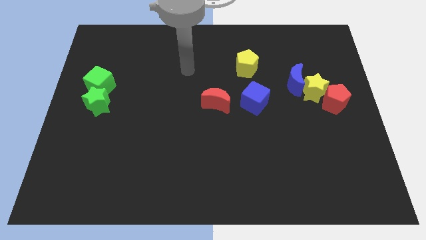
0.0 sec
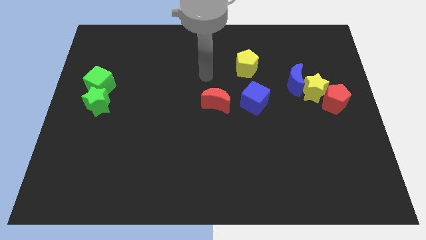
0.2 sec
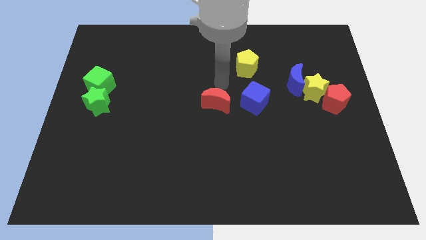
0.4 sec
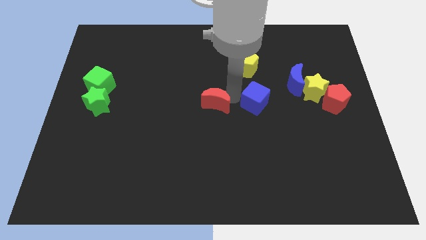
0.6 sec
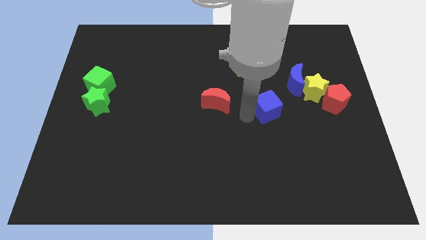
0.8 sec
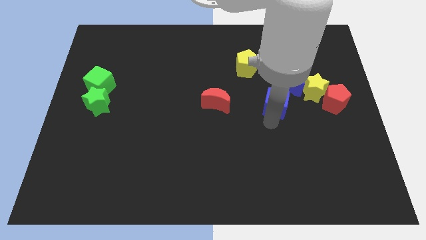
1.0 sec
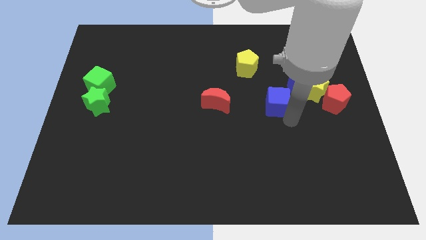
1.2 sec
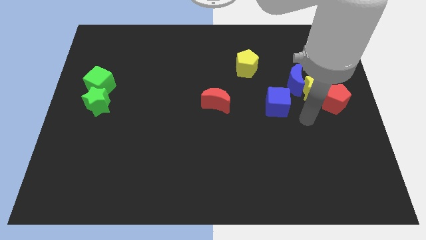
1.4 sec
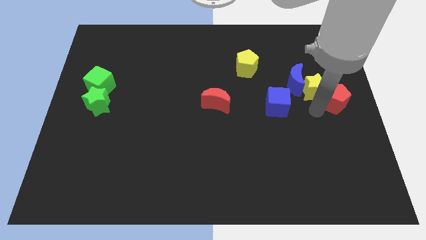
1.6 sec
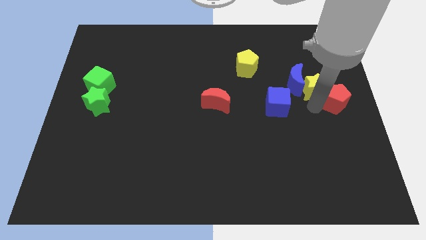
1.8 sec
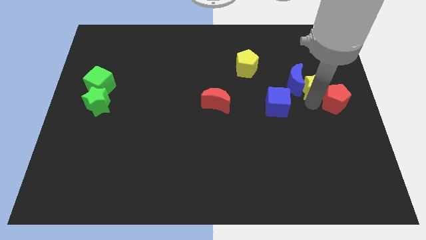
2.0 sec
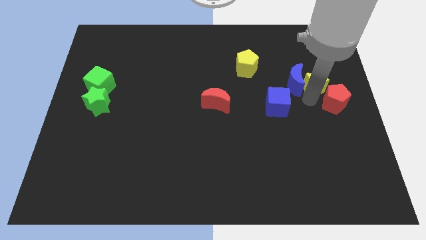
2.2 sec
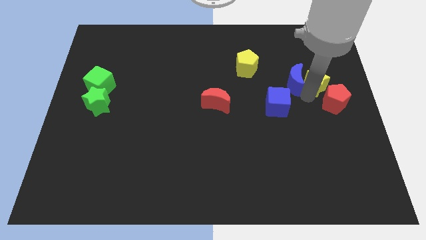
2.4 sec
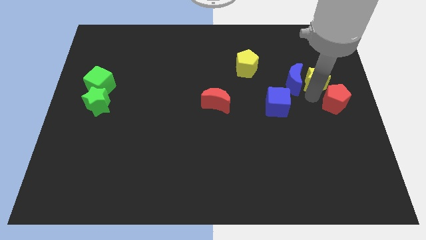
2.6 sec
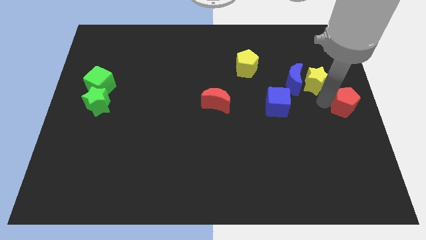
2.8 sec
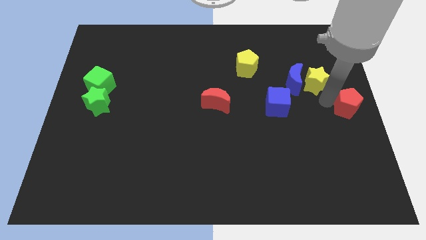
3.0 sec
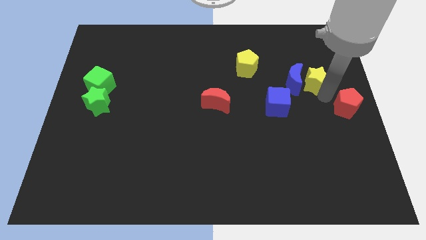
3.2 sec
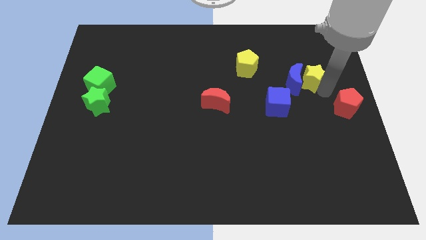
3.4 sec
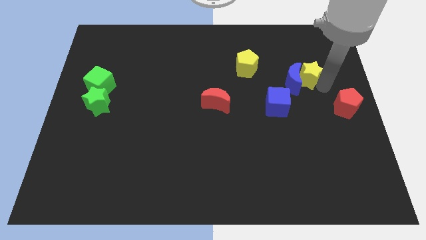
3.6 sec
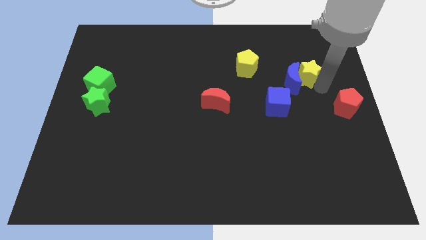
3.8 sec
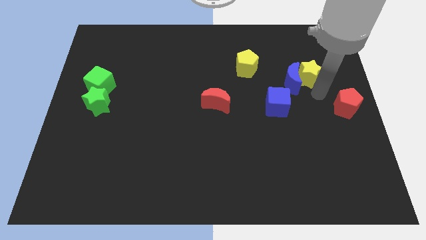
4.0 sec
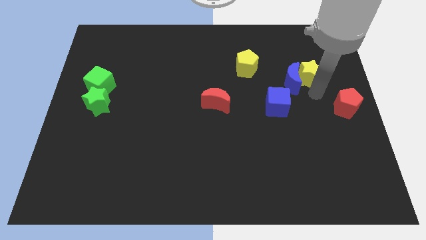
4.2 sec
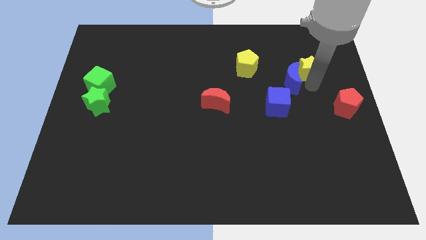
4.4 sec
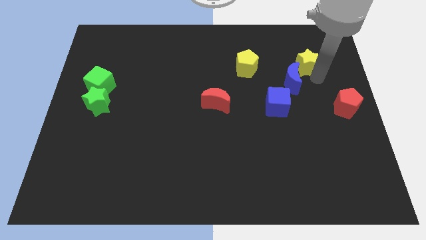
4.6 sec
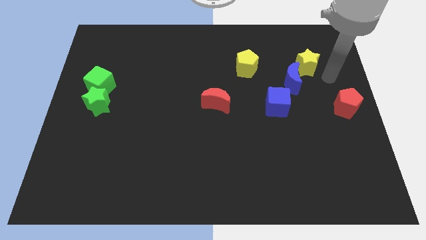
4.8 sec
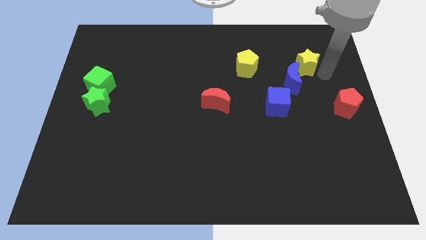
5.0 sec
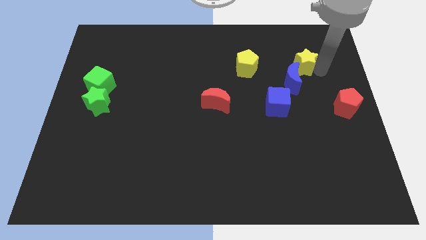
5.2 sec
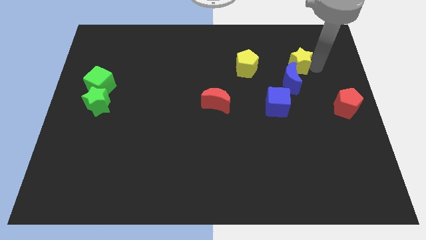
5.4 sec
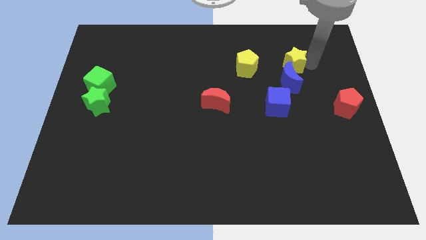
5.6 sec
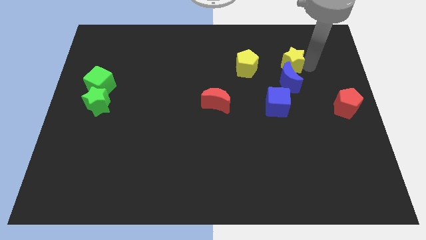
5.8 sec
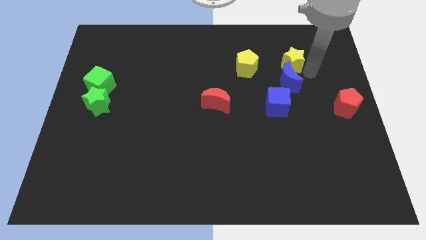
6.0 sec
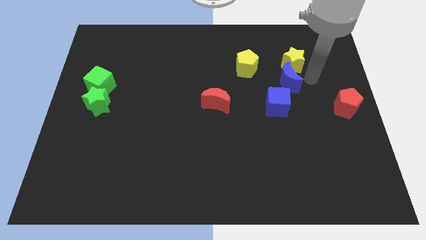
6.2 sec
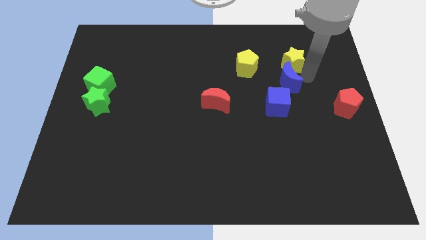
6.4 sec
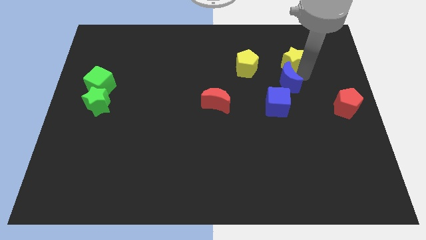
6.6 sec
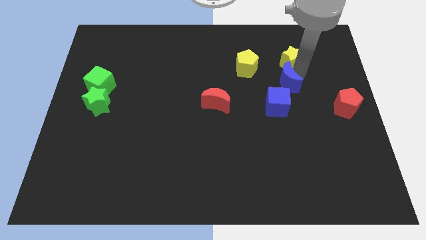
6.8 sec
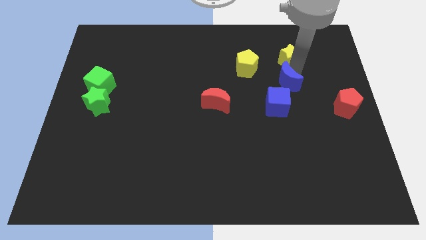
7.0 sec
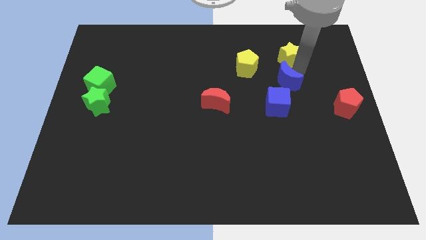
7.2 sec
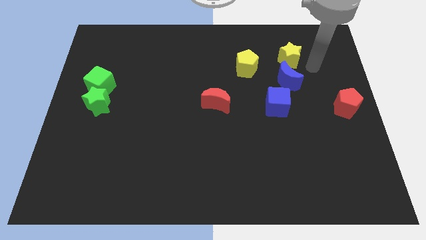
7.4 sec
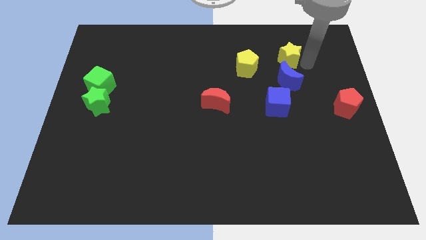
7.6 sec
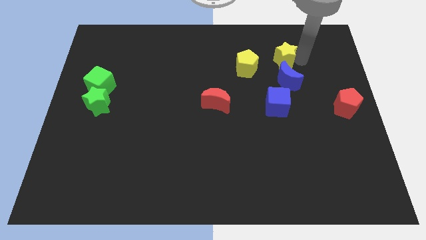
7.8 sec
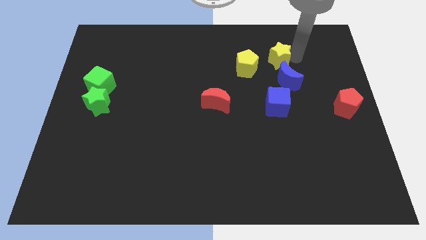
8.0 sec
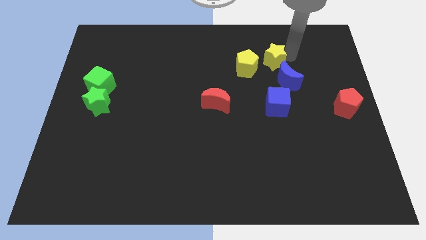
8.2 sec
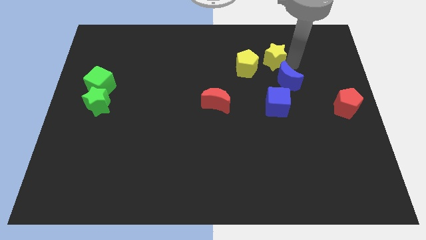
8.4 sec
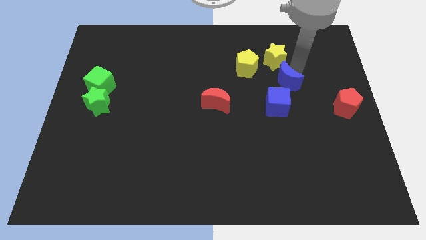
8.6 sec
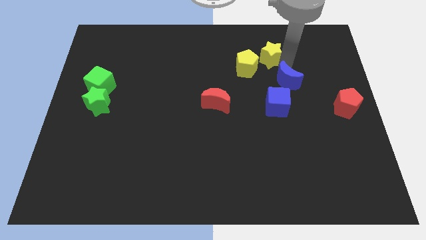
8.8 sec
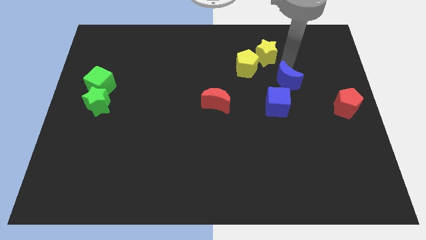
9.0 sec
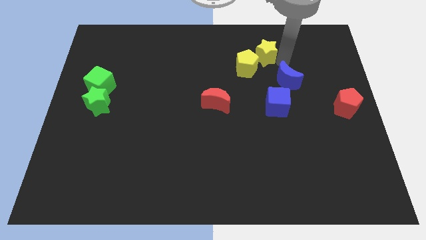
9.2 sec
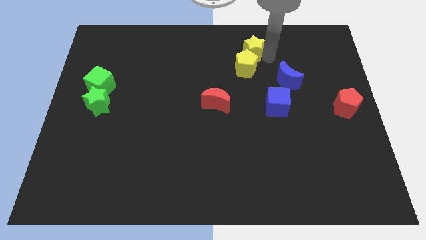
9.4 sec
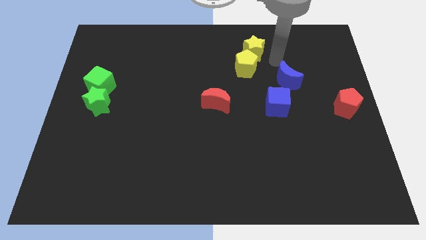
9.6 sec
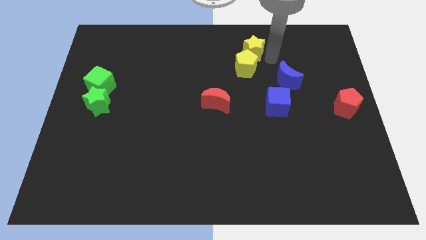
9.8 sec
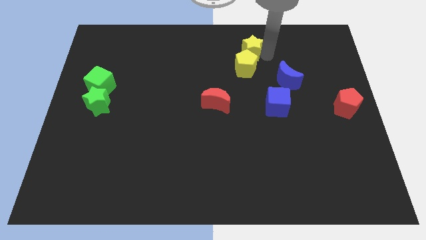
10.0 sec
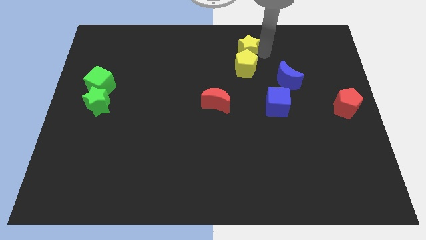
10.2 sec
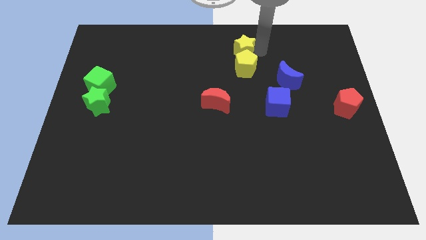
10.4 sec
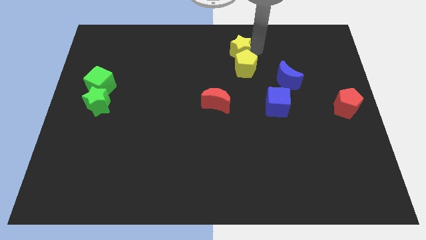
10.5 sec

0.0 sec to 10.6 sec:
move the yellow star to the top

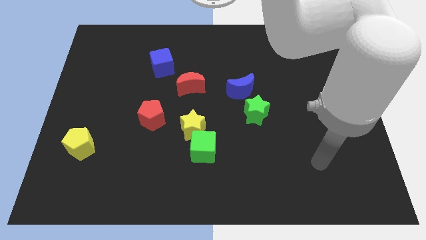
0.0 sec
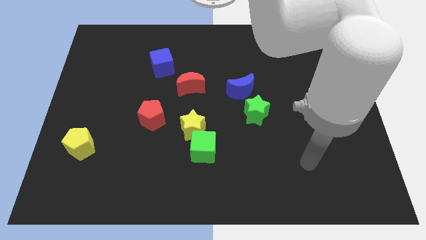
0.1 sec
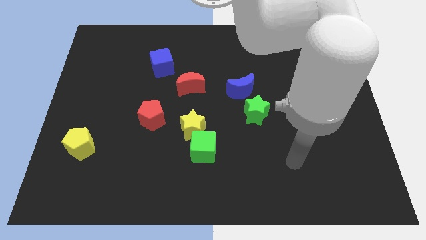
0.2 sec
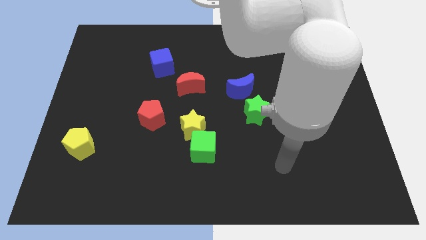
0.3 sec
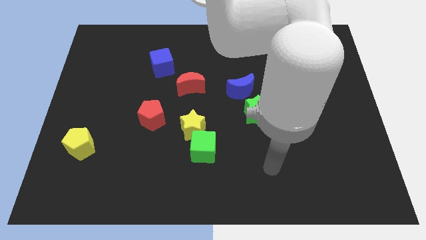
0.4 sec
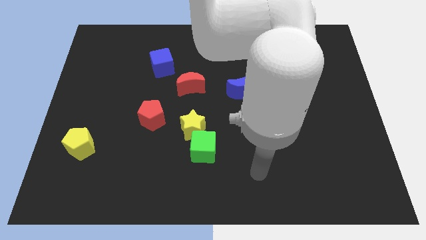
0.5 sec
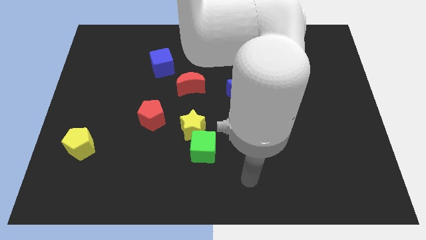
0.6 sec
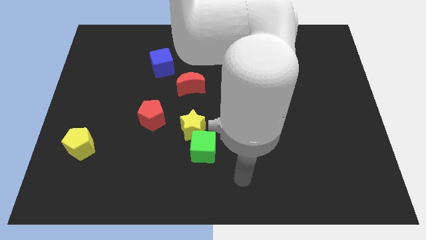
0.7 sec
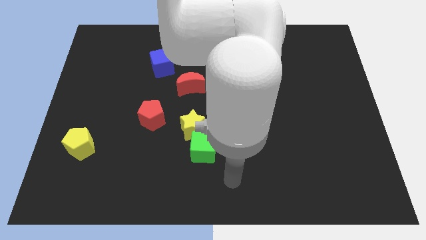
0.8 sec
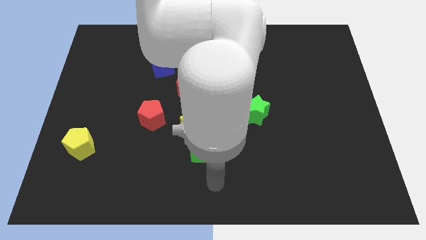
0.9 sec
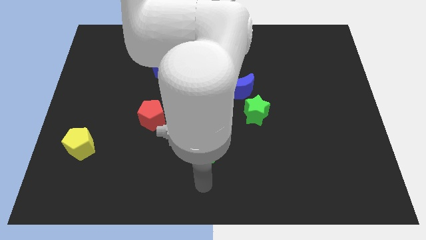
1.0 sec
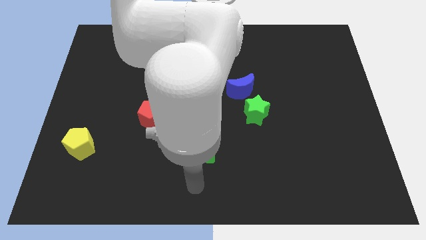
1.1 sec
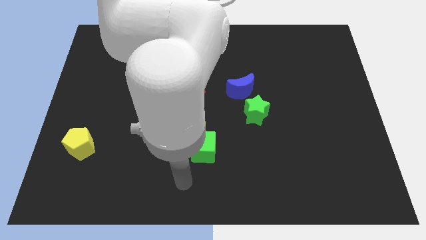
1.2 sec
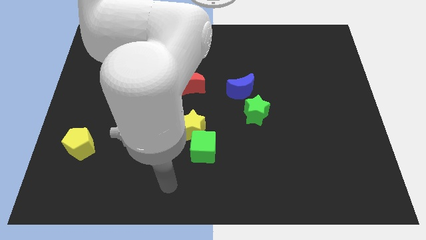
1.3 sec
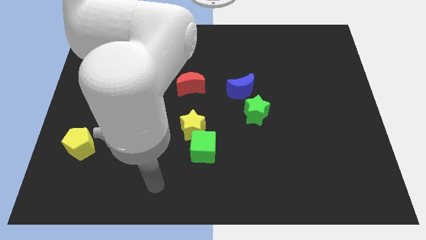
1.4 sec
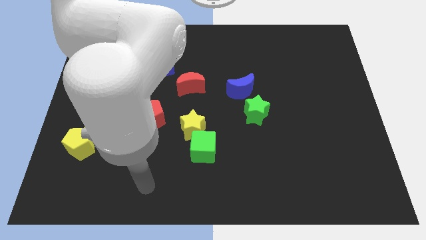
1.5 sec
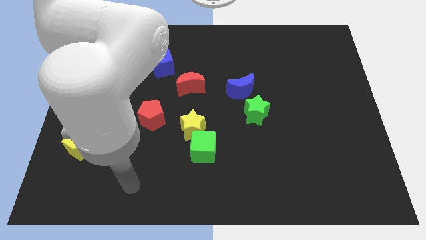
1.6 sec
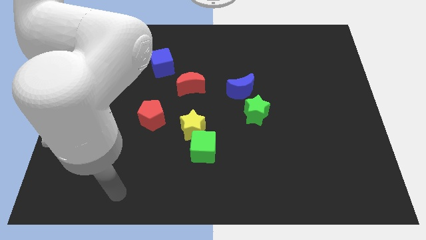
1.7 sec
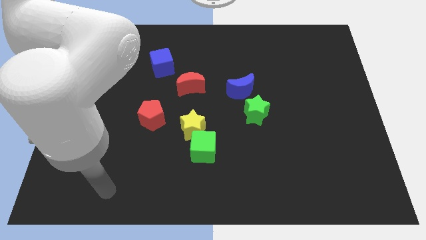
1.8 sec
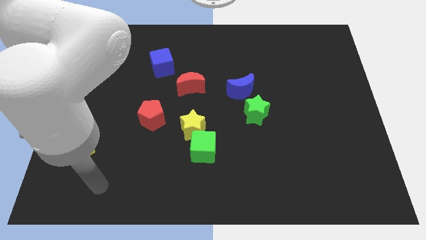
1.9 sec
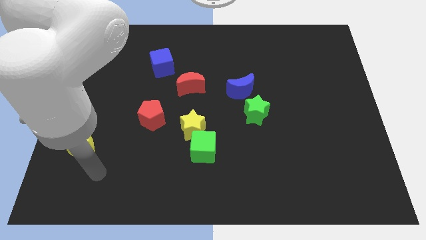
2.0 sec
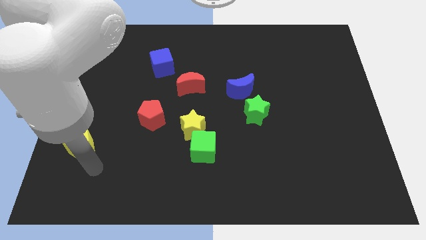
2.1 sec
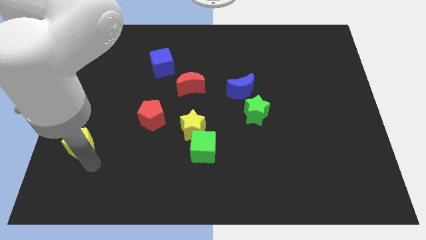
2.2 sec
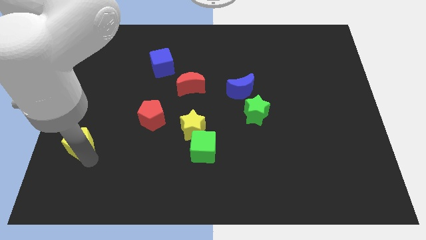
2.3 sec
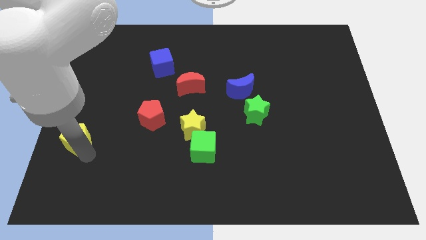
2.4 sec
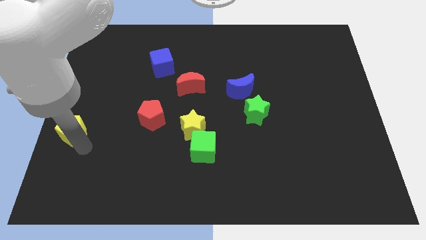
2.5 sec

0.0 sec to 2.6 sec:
move the yellow pentagon to the left side of the board
